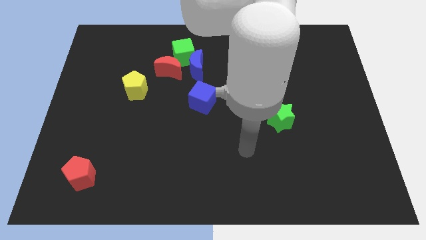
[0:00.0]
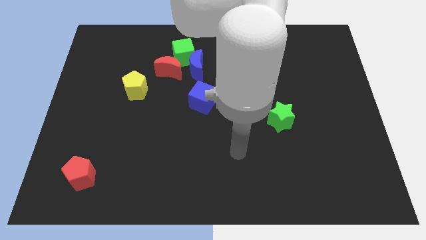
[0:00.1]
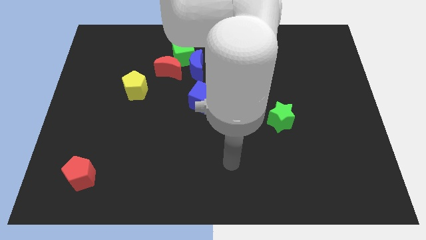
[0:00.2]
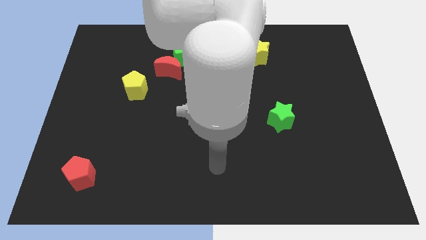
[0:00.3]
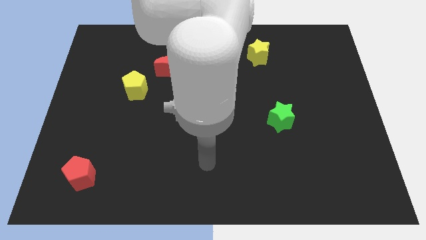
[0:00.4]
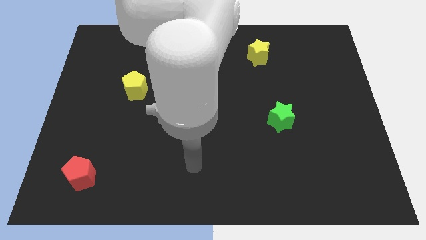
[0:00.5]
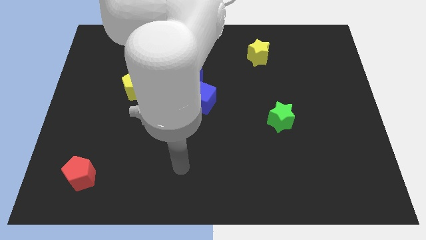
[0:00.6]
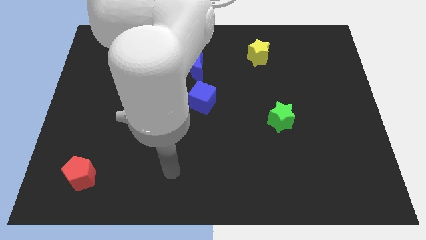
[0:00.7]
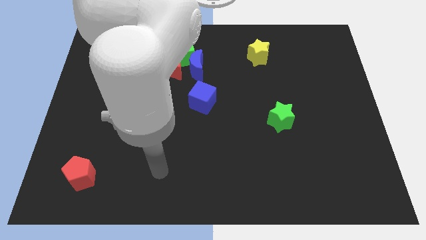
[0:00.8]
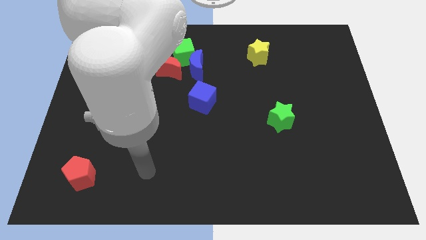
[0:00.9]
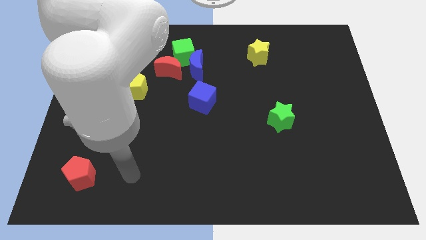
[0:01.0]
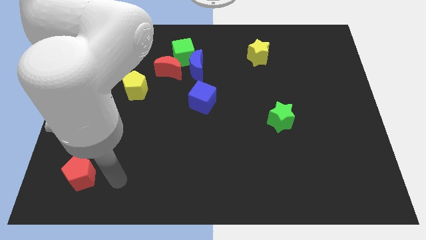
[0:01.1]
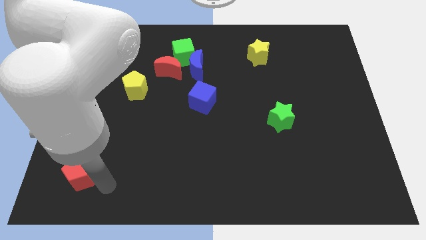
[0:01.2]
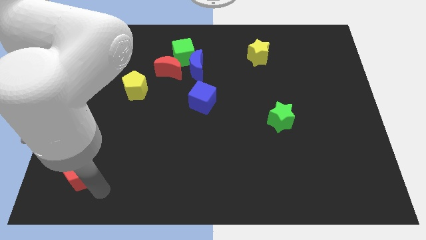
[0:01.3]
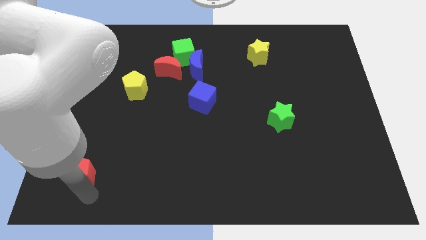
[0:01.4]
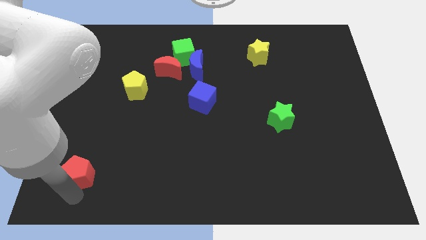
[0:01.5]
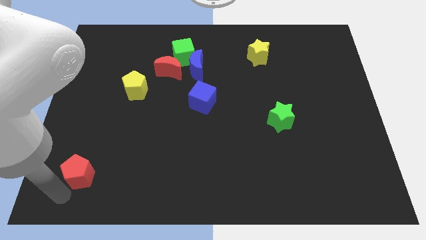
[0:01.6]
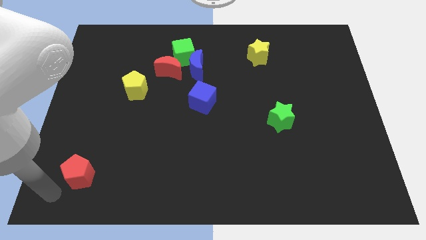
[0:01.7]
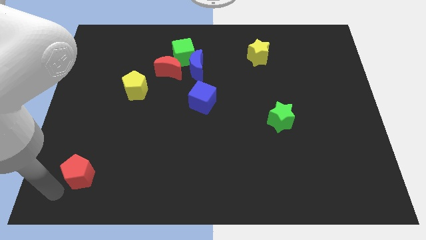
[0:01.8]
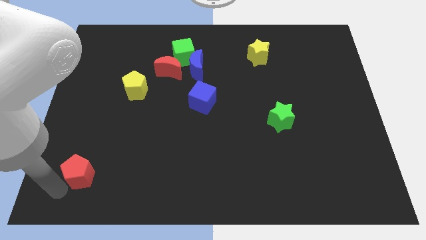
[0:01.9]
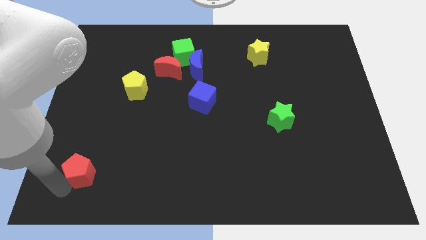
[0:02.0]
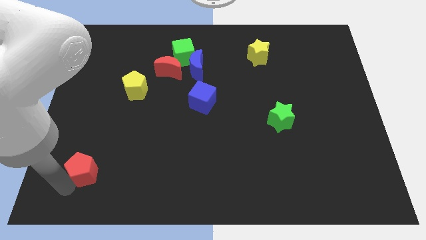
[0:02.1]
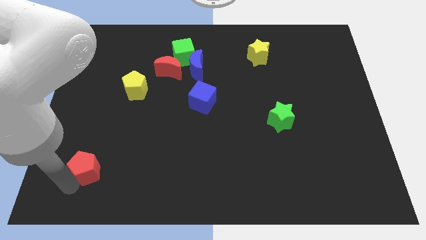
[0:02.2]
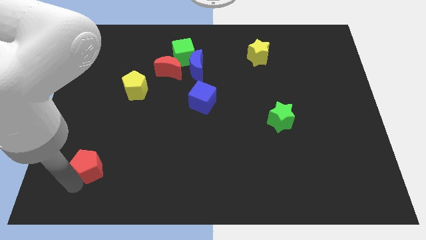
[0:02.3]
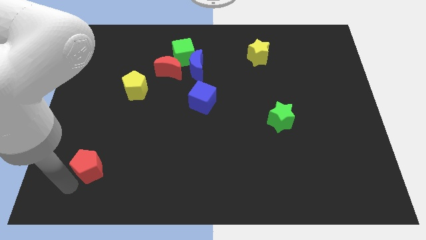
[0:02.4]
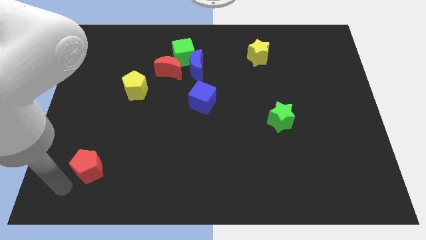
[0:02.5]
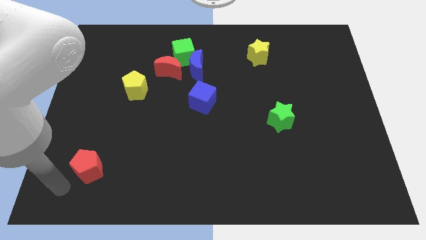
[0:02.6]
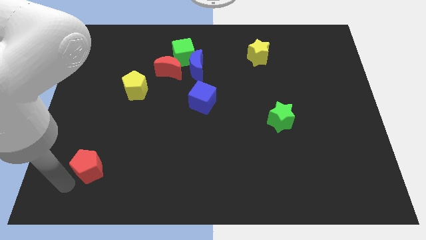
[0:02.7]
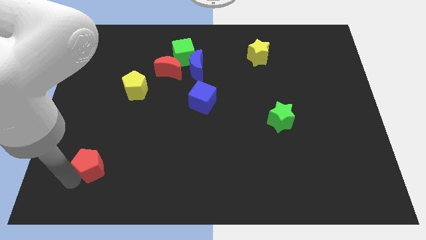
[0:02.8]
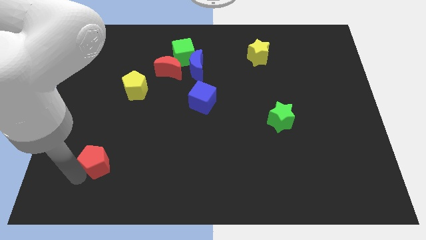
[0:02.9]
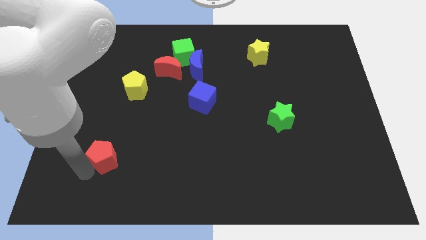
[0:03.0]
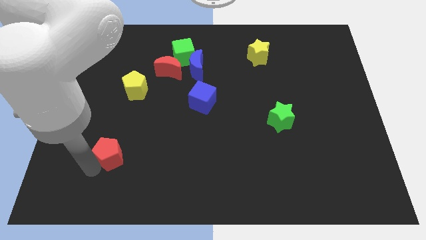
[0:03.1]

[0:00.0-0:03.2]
slightly push the red pentagon up and right

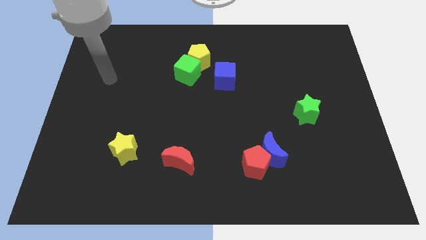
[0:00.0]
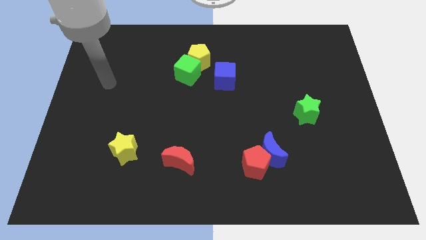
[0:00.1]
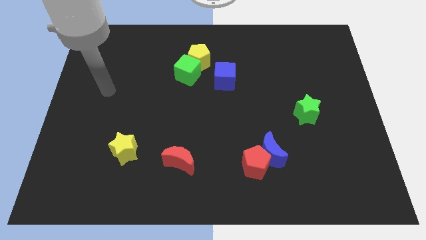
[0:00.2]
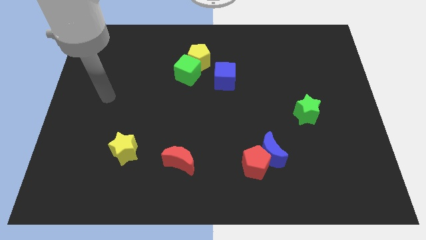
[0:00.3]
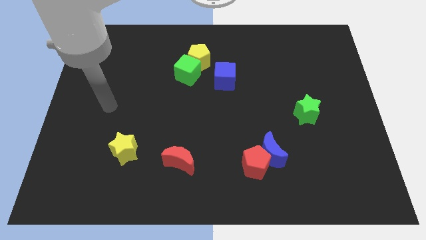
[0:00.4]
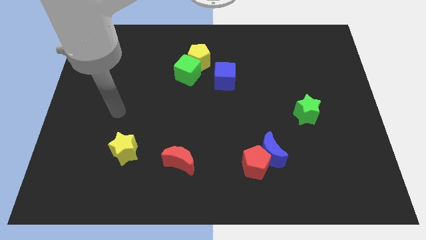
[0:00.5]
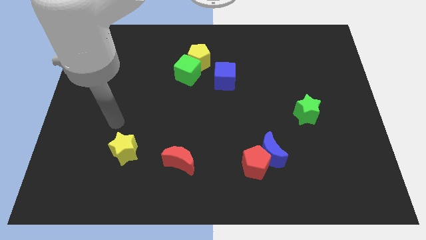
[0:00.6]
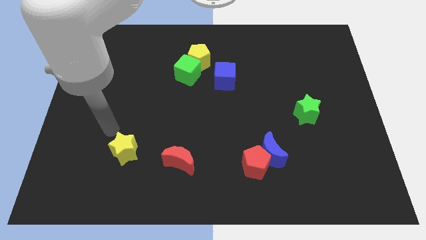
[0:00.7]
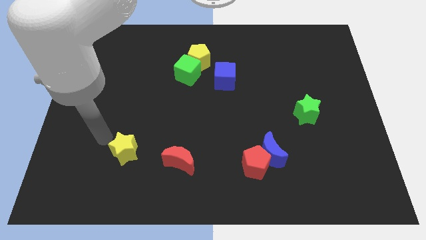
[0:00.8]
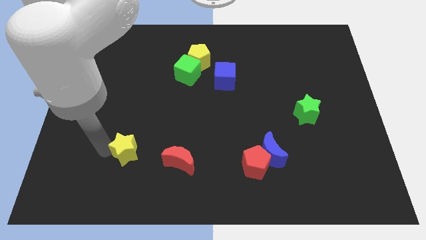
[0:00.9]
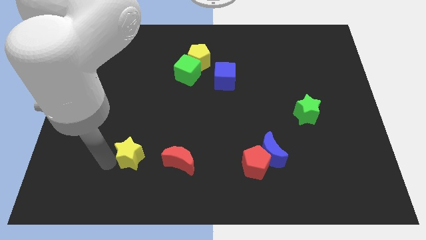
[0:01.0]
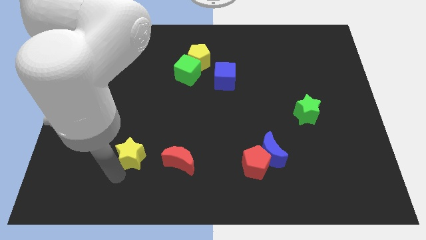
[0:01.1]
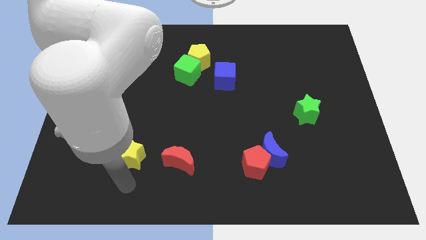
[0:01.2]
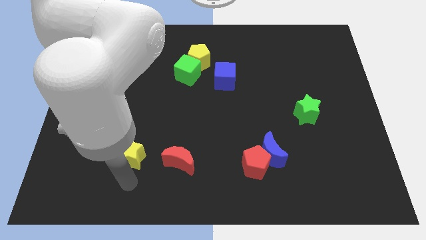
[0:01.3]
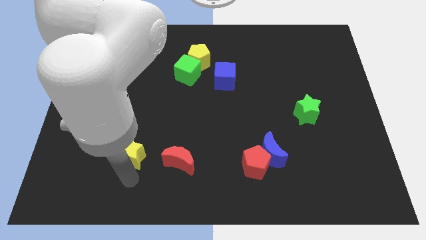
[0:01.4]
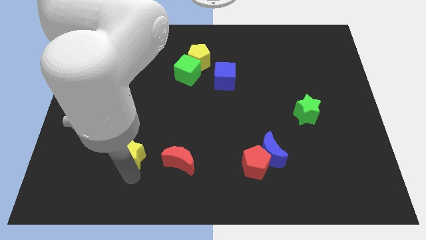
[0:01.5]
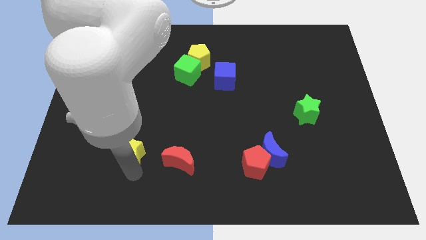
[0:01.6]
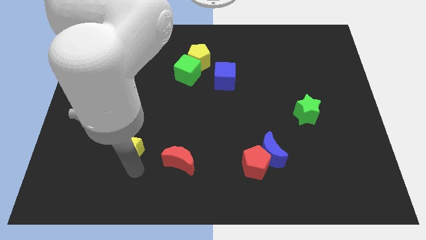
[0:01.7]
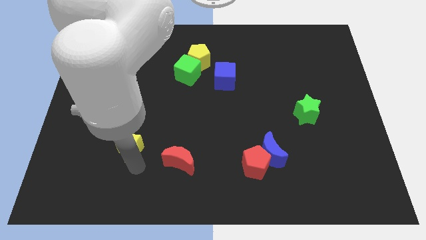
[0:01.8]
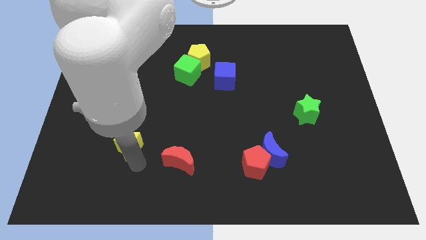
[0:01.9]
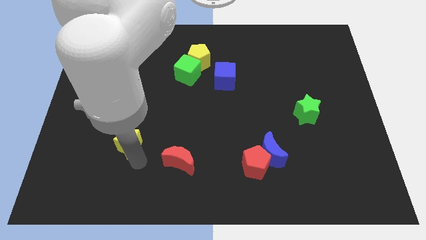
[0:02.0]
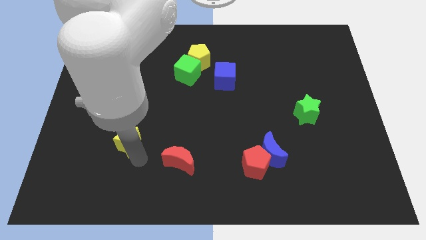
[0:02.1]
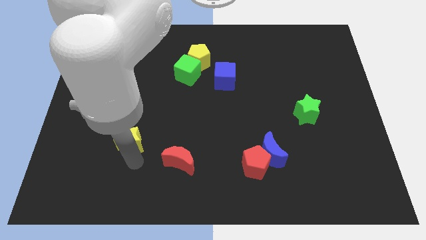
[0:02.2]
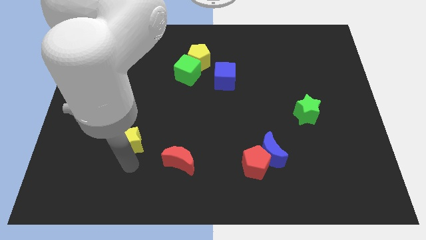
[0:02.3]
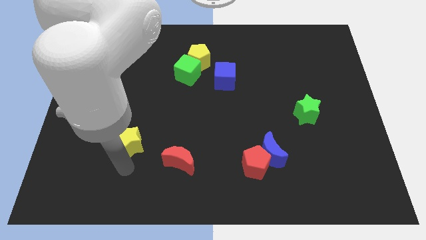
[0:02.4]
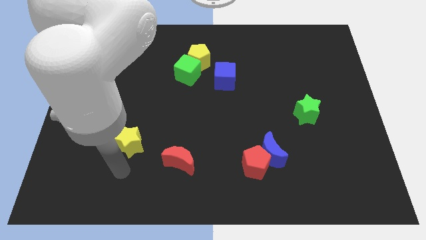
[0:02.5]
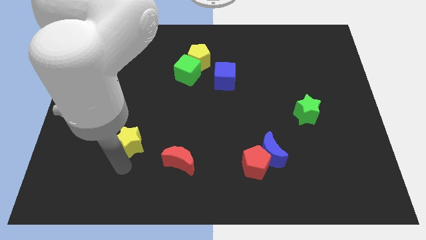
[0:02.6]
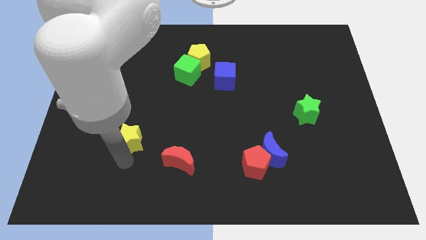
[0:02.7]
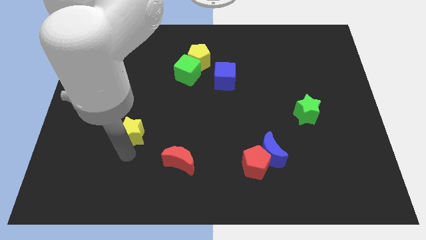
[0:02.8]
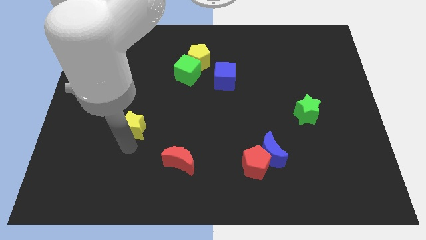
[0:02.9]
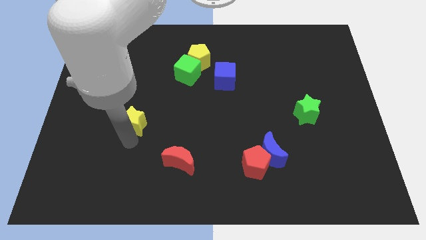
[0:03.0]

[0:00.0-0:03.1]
move the yellow star up a little

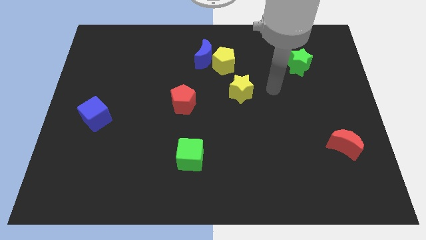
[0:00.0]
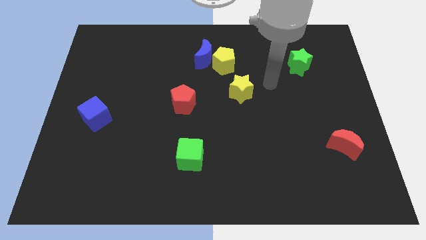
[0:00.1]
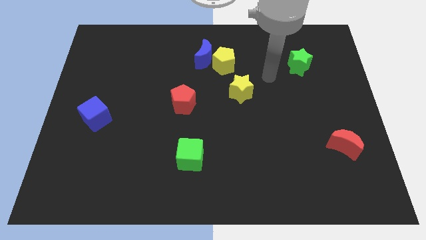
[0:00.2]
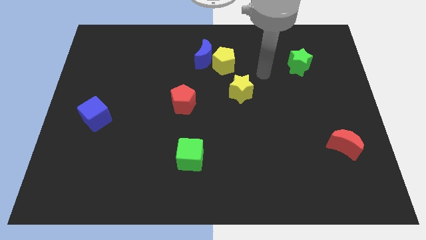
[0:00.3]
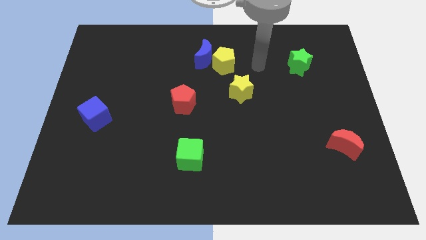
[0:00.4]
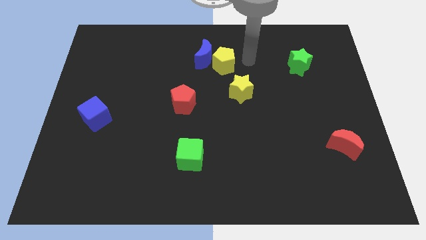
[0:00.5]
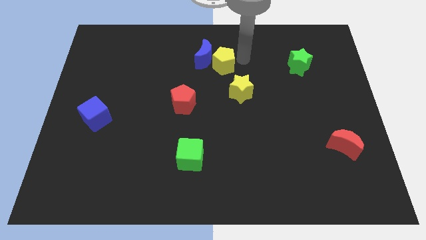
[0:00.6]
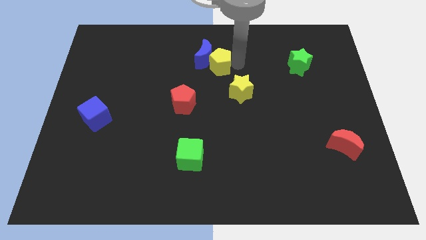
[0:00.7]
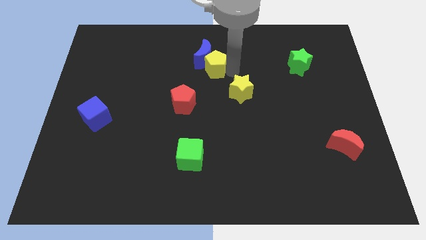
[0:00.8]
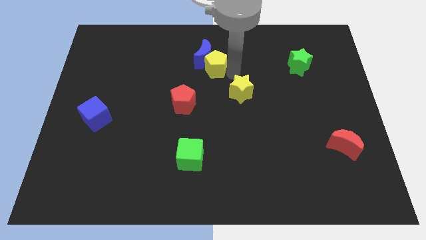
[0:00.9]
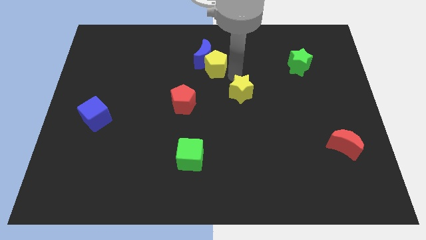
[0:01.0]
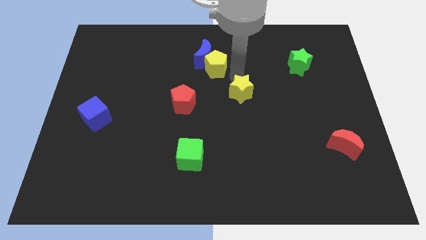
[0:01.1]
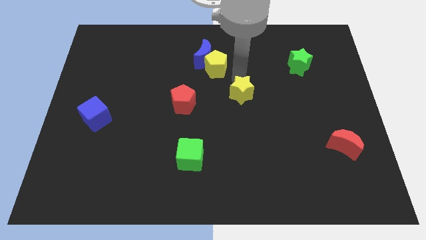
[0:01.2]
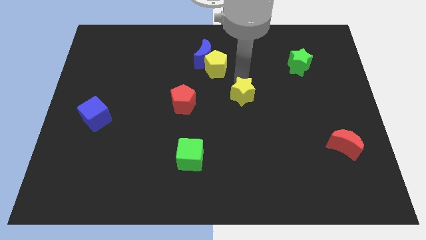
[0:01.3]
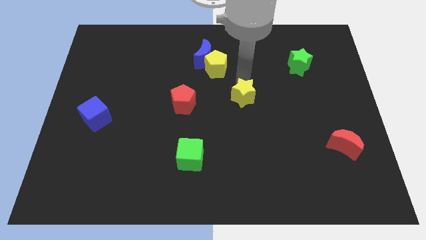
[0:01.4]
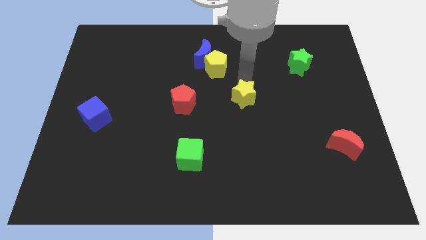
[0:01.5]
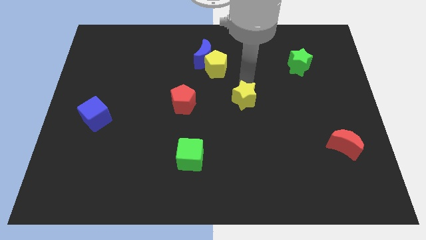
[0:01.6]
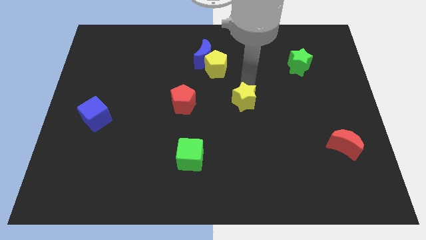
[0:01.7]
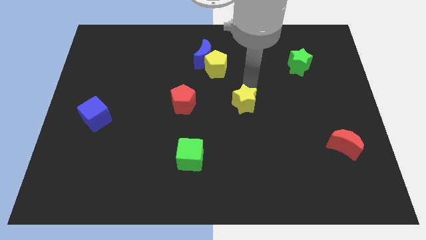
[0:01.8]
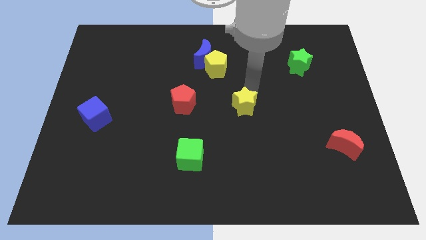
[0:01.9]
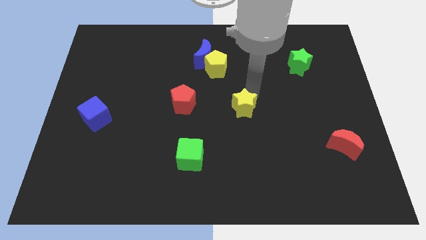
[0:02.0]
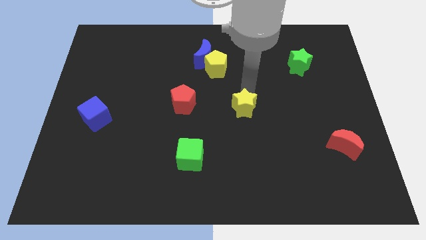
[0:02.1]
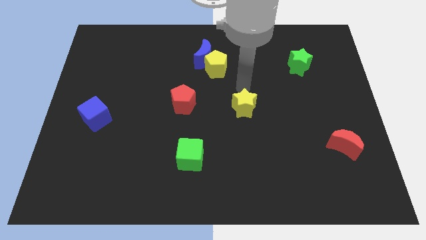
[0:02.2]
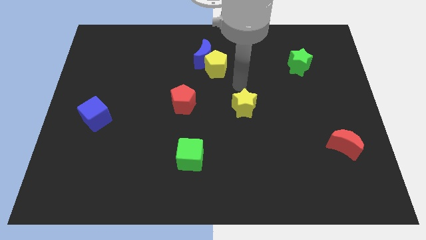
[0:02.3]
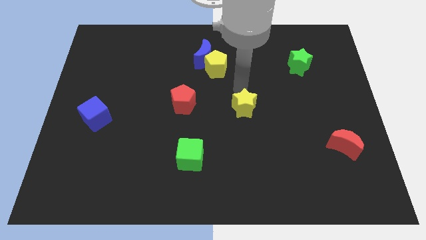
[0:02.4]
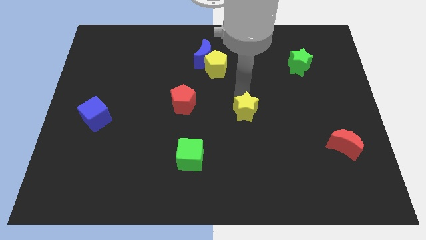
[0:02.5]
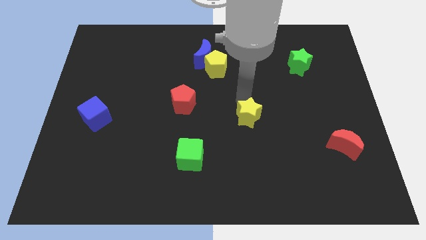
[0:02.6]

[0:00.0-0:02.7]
push the yellow star a little bit down
